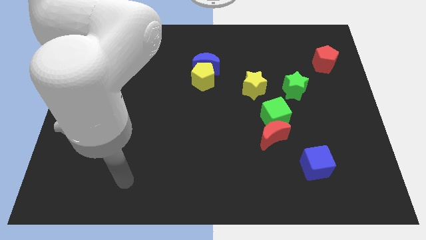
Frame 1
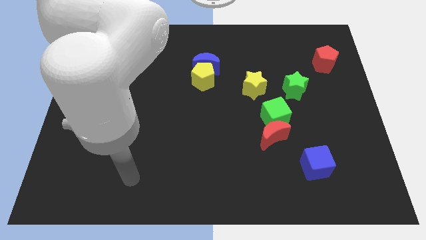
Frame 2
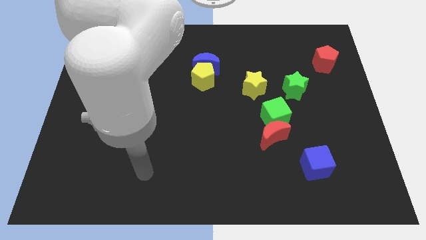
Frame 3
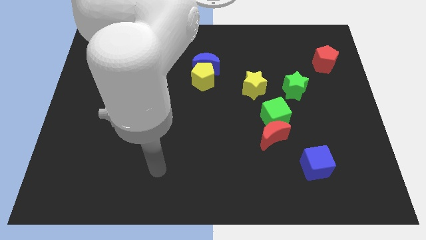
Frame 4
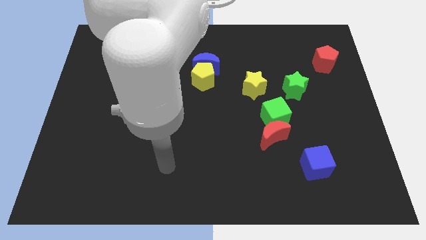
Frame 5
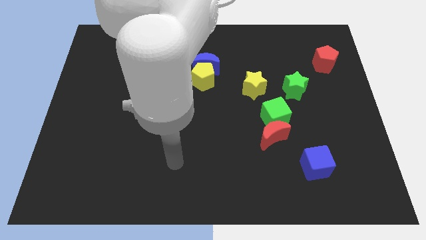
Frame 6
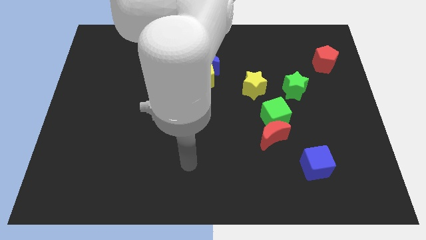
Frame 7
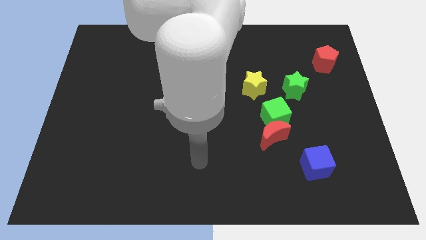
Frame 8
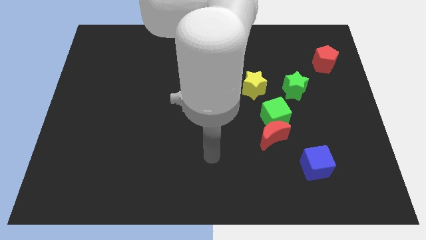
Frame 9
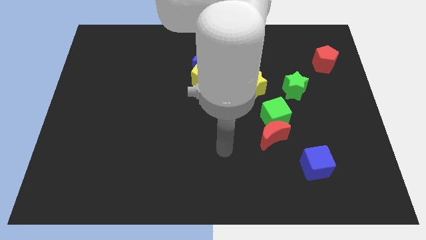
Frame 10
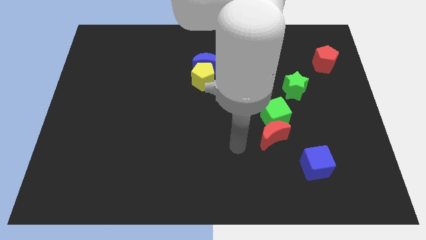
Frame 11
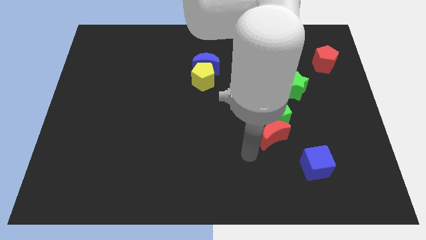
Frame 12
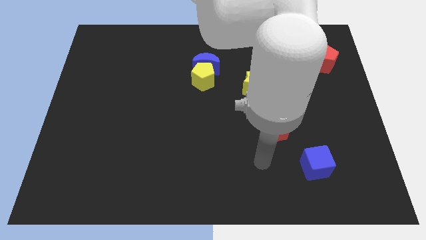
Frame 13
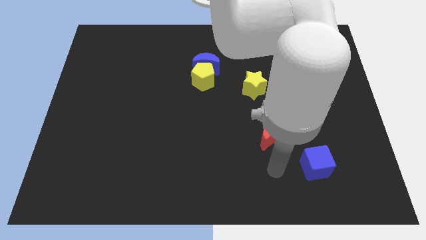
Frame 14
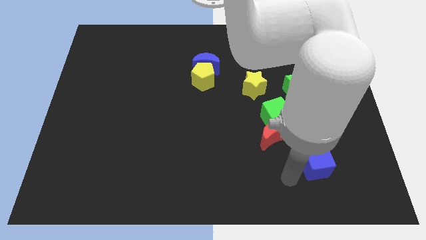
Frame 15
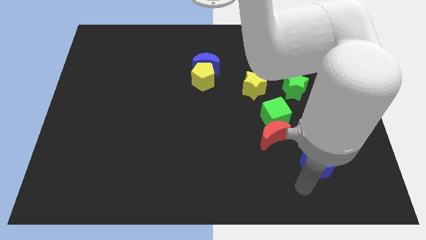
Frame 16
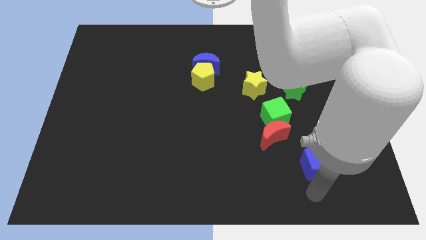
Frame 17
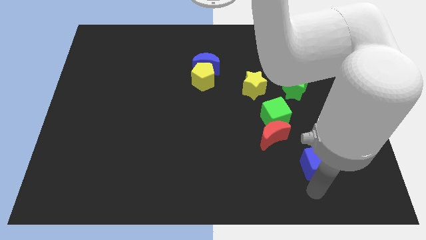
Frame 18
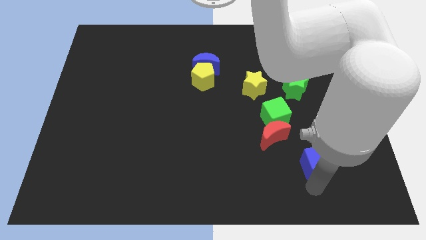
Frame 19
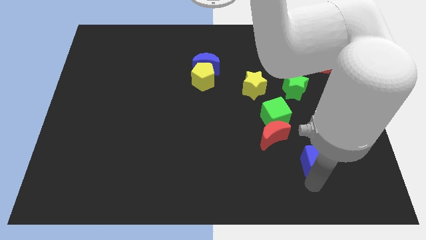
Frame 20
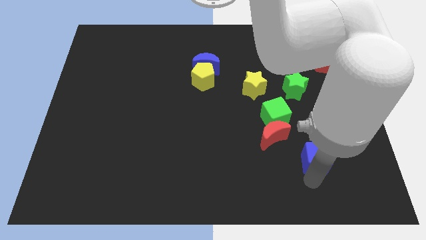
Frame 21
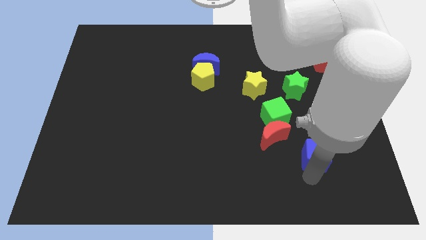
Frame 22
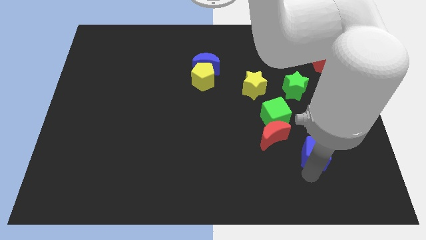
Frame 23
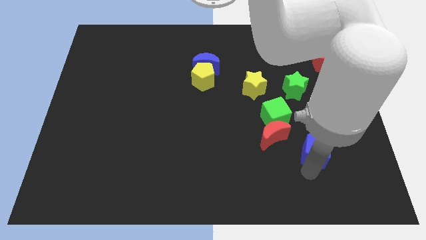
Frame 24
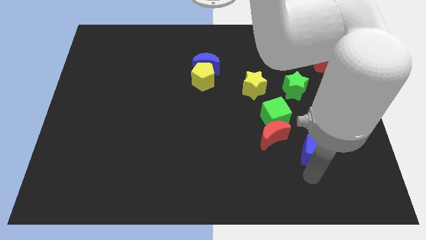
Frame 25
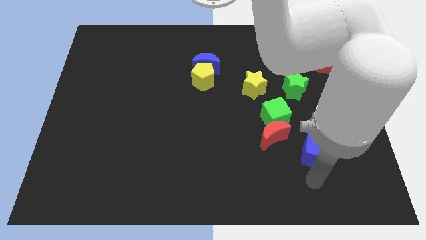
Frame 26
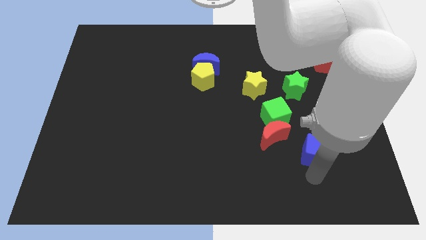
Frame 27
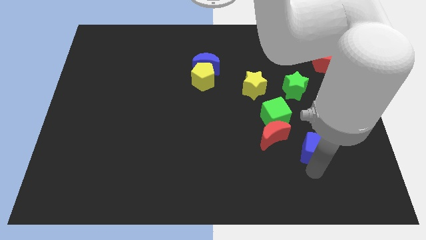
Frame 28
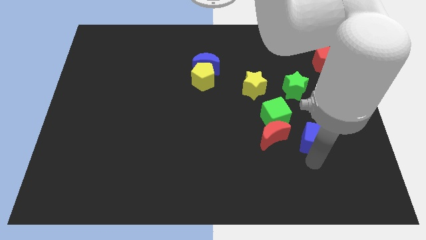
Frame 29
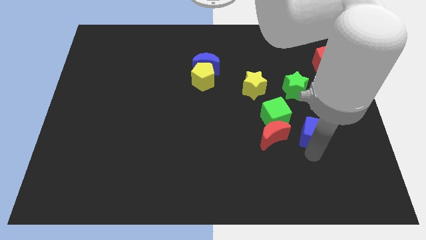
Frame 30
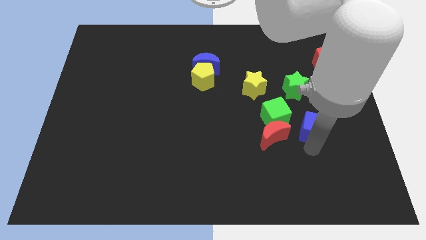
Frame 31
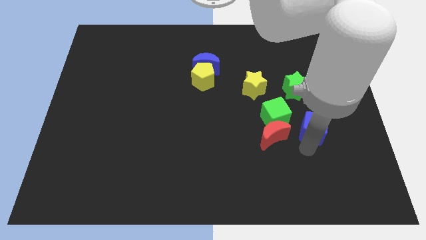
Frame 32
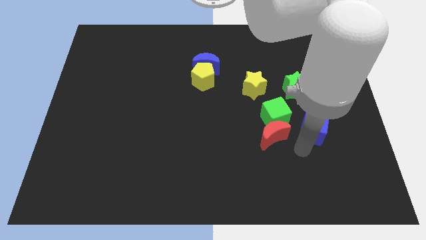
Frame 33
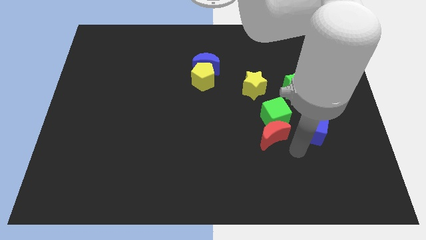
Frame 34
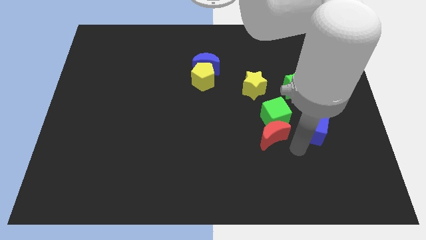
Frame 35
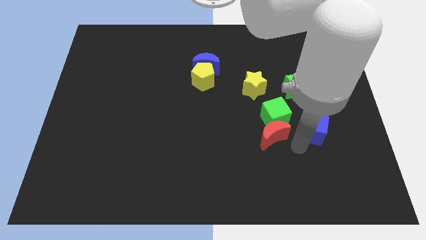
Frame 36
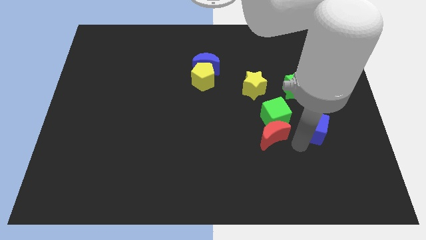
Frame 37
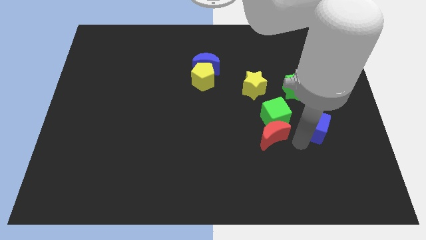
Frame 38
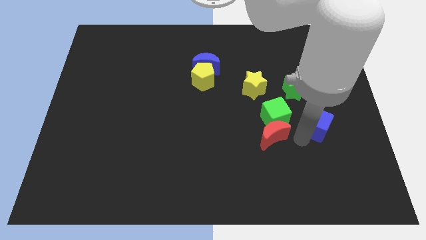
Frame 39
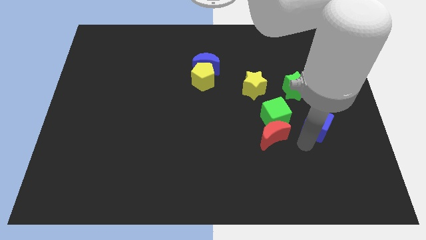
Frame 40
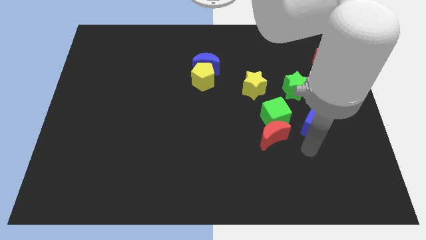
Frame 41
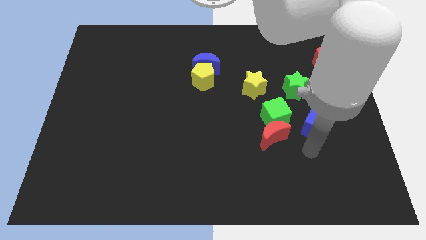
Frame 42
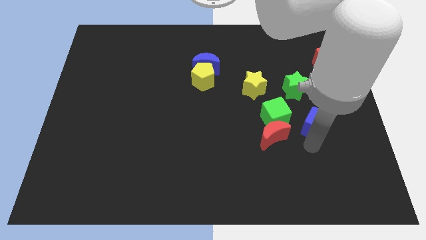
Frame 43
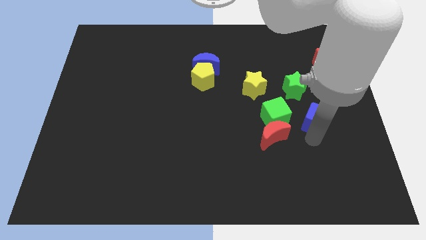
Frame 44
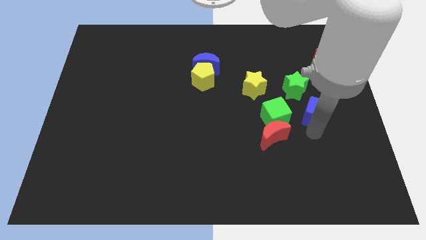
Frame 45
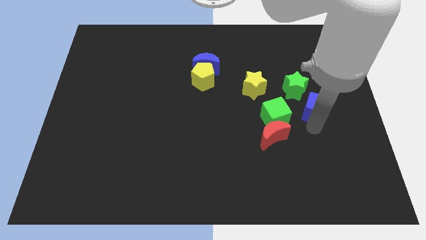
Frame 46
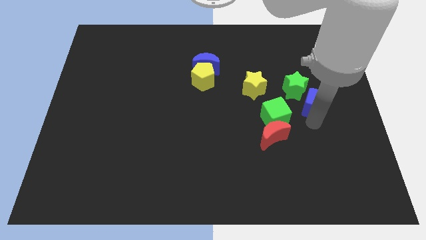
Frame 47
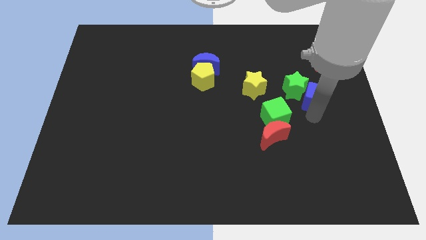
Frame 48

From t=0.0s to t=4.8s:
move the blue cube to the right side of the yellow star

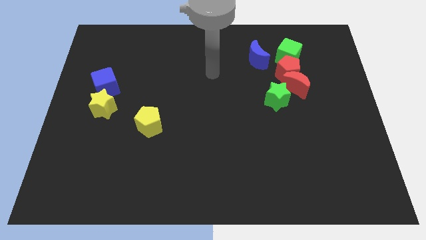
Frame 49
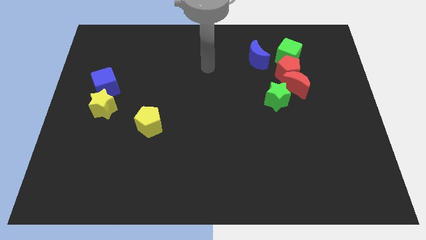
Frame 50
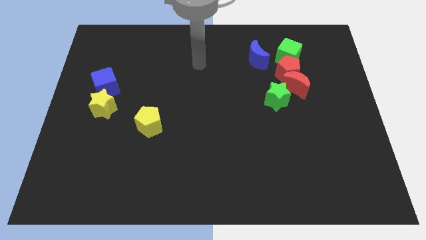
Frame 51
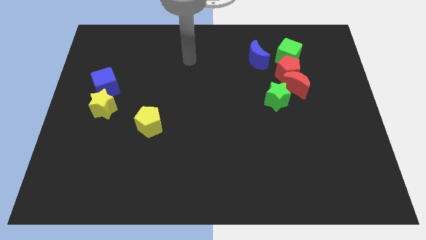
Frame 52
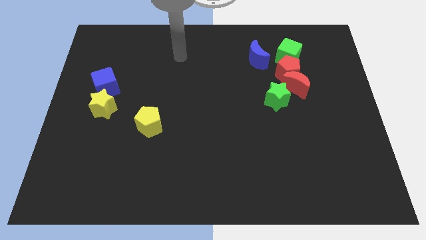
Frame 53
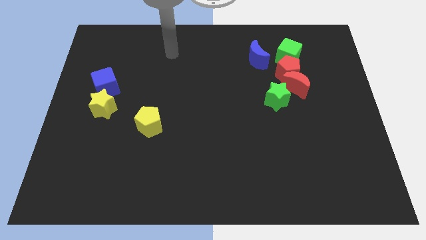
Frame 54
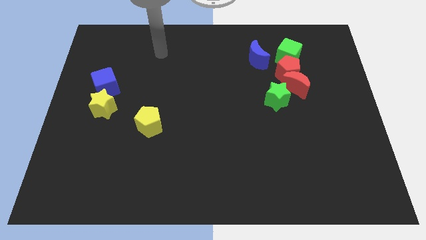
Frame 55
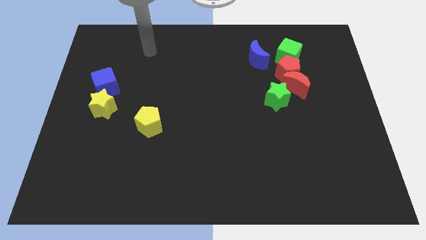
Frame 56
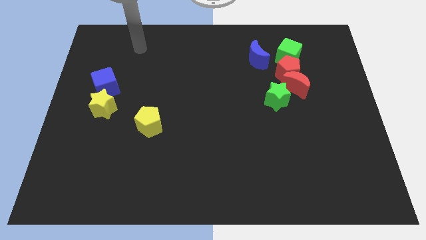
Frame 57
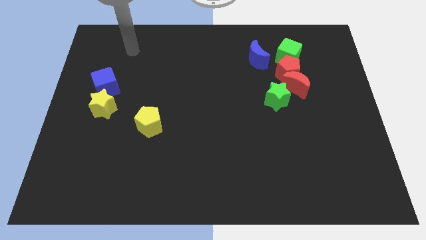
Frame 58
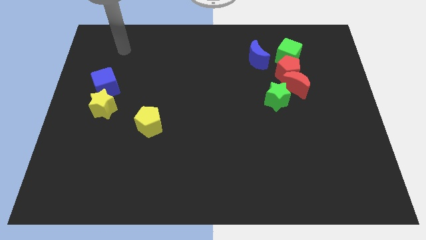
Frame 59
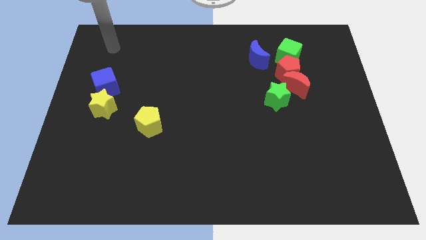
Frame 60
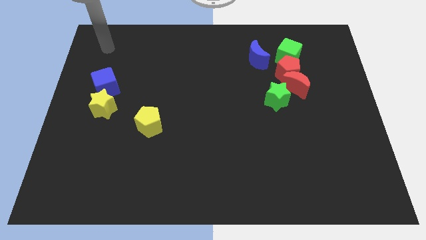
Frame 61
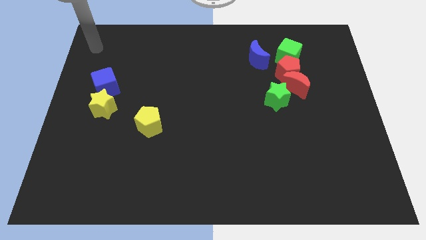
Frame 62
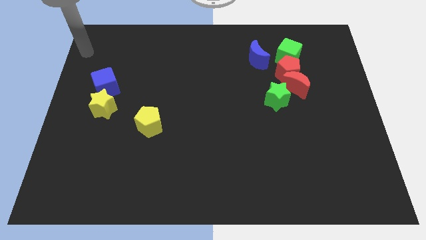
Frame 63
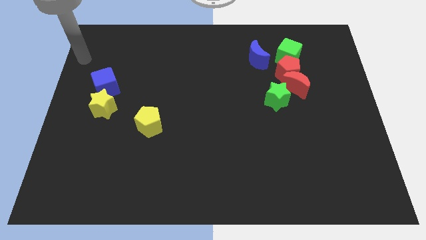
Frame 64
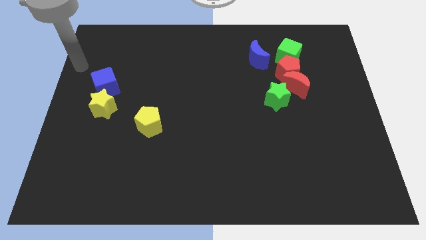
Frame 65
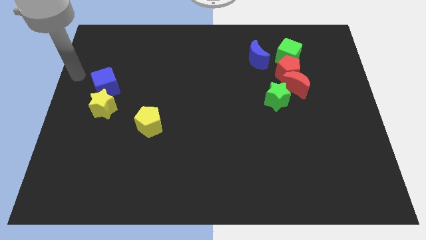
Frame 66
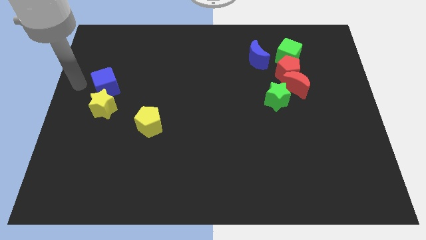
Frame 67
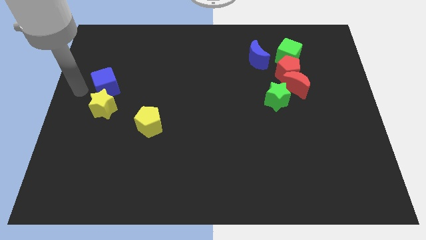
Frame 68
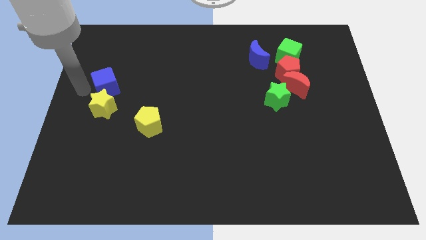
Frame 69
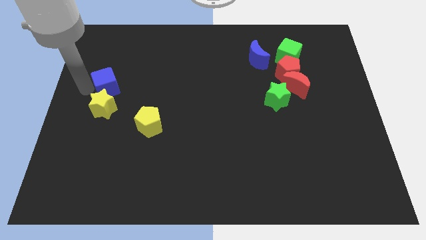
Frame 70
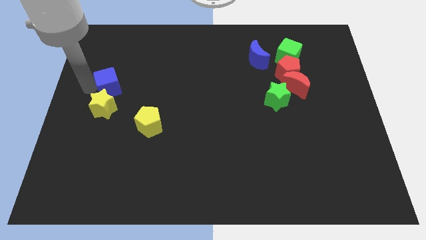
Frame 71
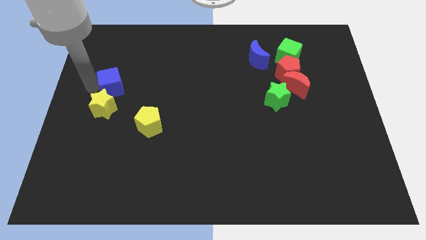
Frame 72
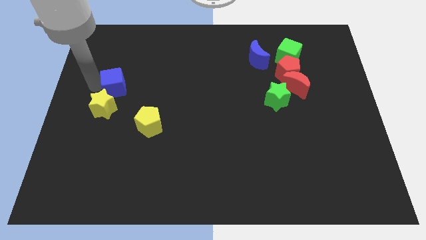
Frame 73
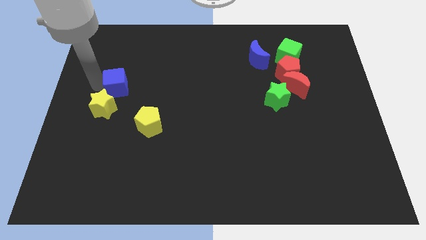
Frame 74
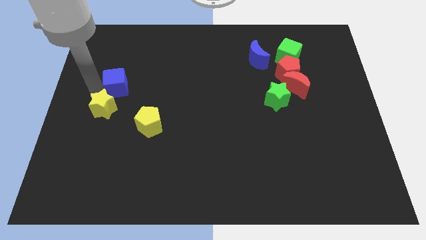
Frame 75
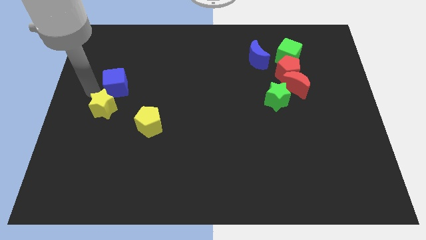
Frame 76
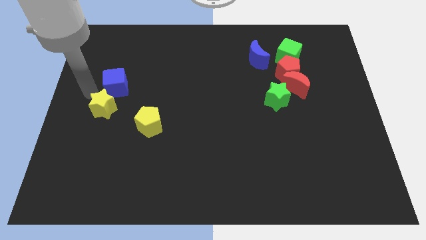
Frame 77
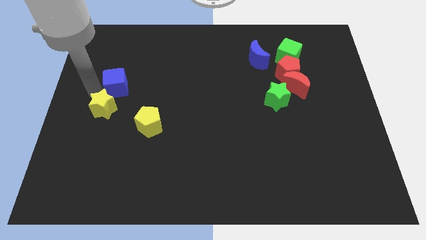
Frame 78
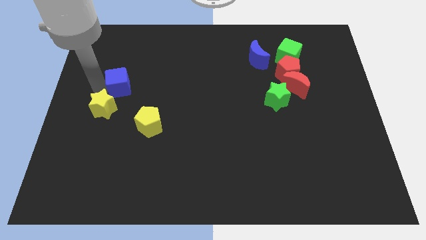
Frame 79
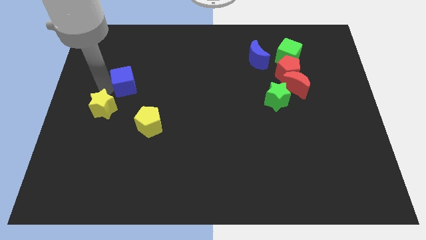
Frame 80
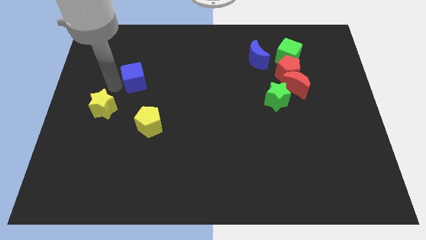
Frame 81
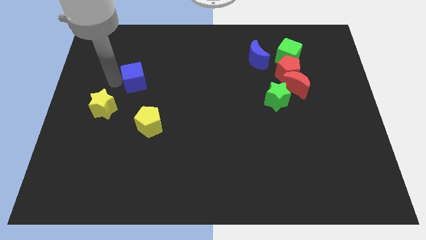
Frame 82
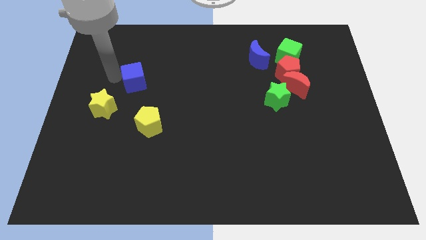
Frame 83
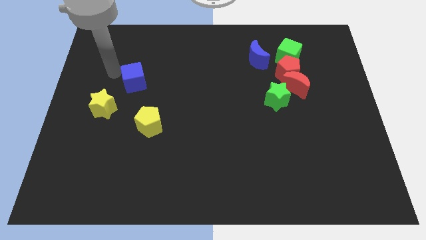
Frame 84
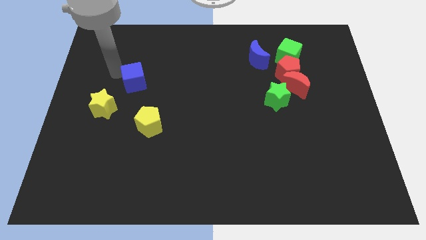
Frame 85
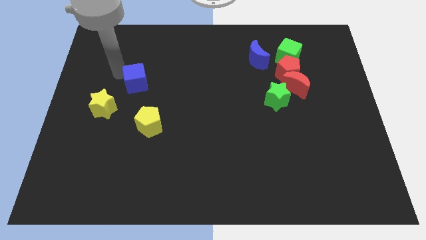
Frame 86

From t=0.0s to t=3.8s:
put the blue cube above the yellow pentagon
